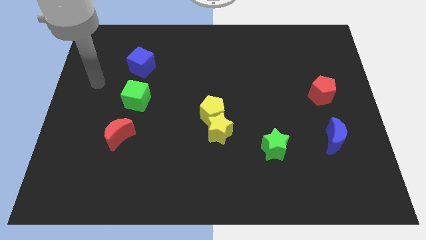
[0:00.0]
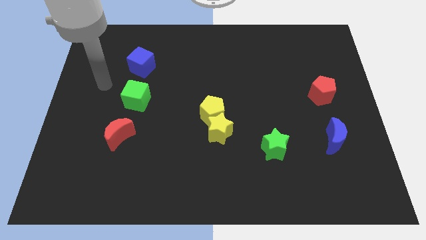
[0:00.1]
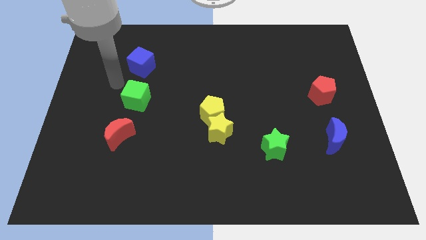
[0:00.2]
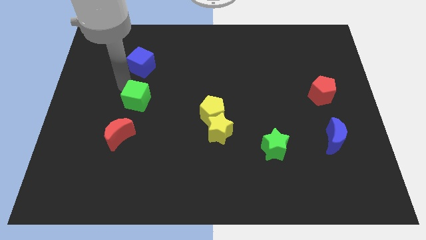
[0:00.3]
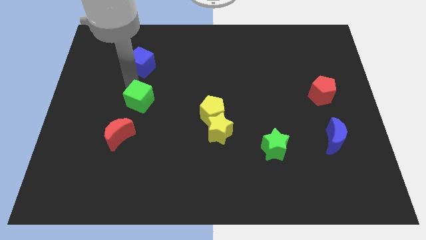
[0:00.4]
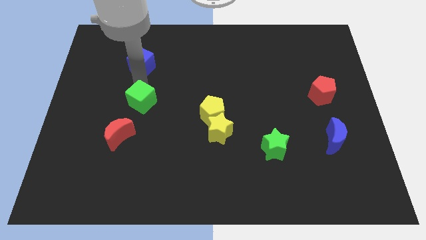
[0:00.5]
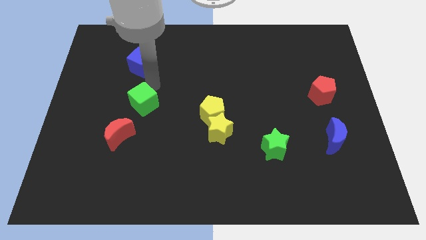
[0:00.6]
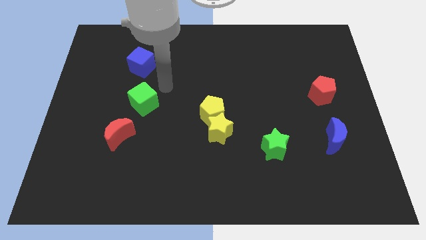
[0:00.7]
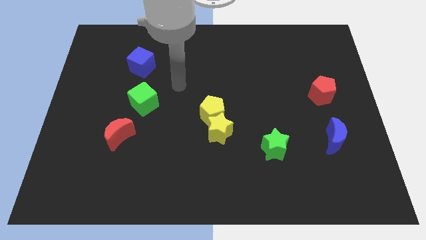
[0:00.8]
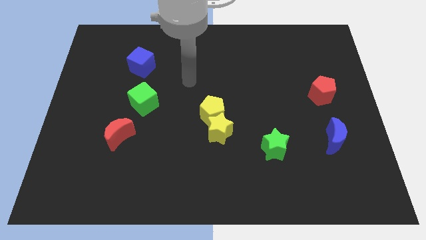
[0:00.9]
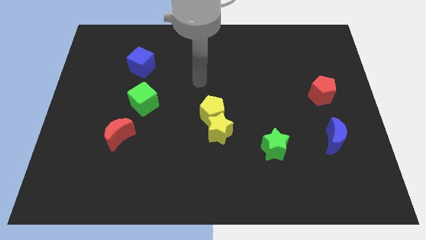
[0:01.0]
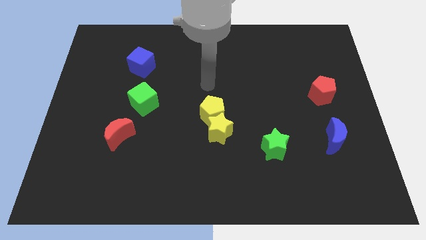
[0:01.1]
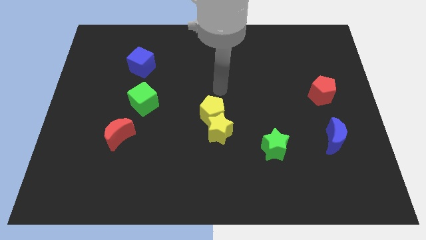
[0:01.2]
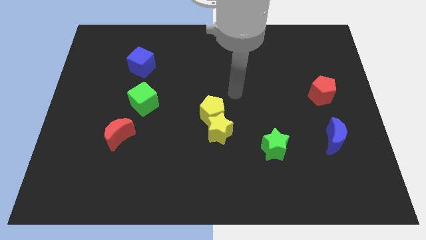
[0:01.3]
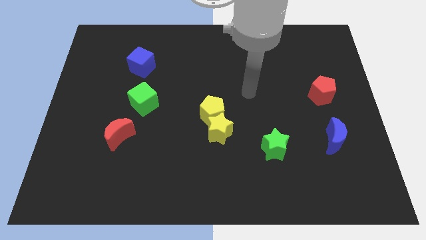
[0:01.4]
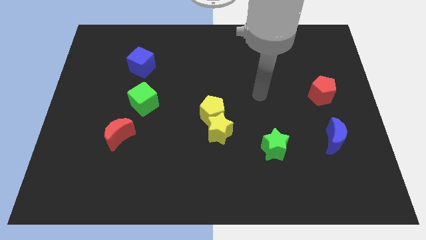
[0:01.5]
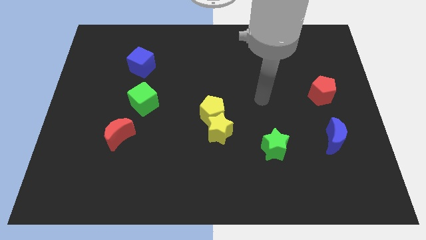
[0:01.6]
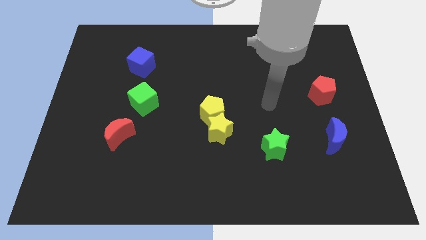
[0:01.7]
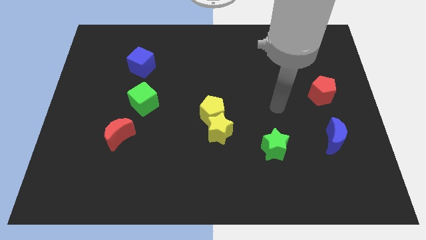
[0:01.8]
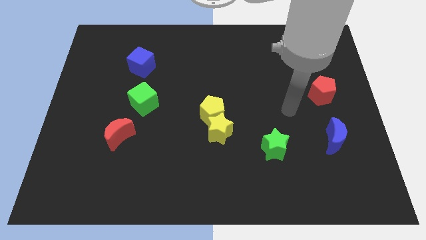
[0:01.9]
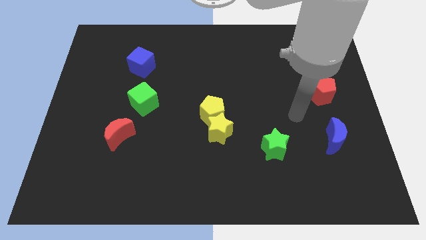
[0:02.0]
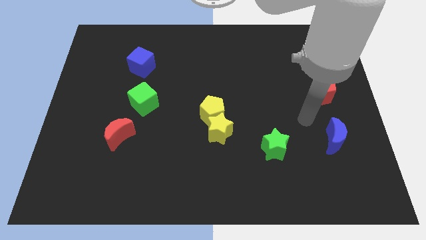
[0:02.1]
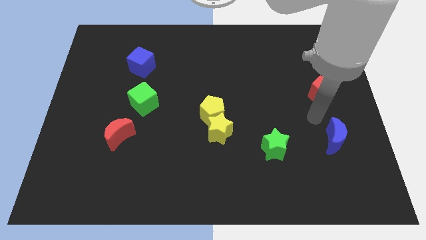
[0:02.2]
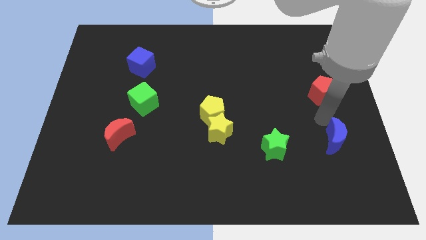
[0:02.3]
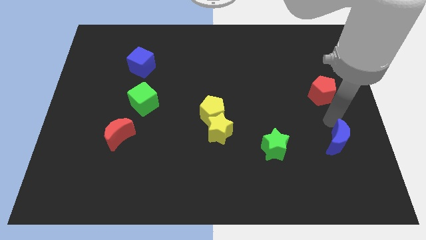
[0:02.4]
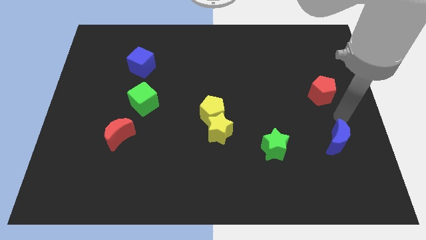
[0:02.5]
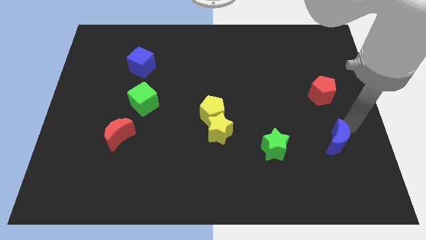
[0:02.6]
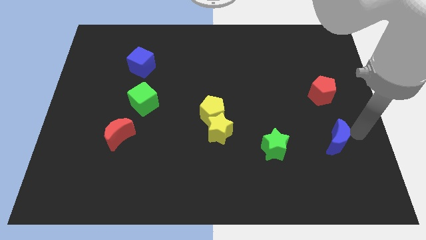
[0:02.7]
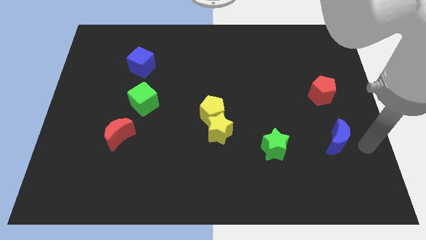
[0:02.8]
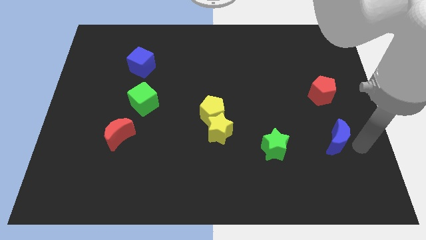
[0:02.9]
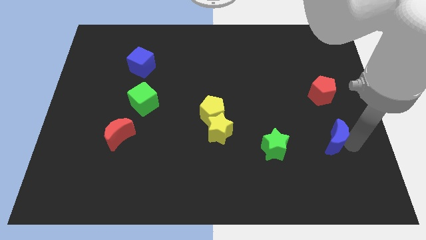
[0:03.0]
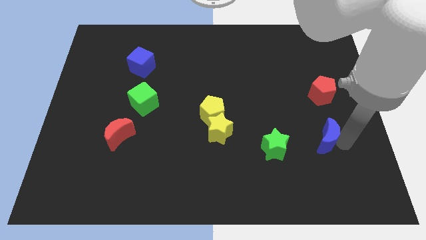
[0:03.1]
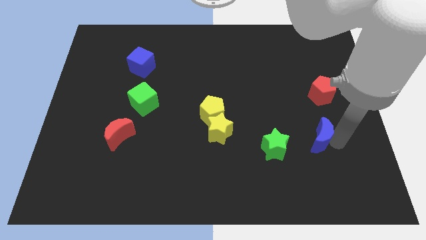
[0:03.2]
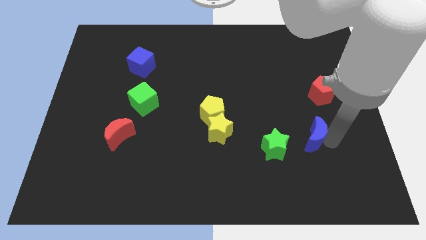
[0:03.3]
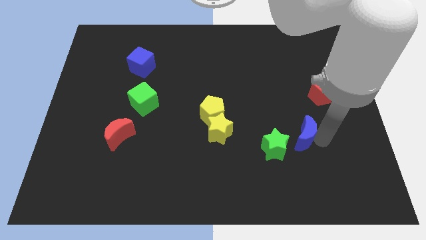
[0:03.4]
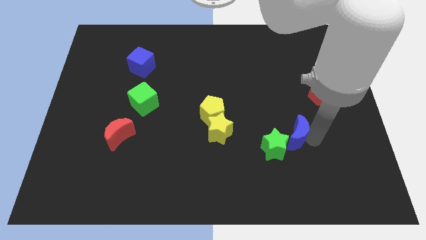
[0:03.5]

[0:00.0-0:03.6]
slightly slide the blue moon left

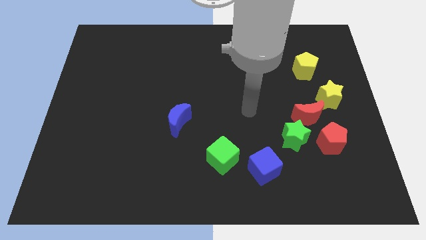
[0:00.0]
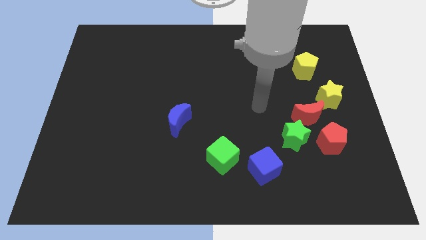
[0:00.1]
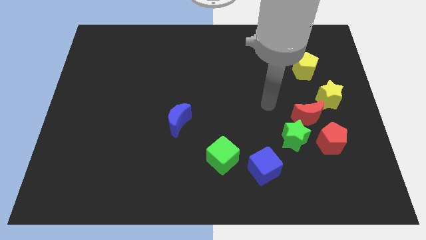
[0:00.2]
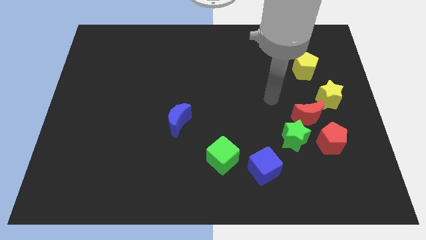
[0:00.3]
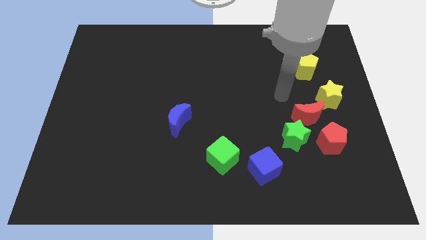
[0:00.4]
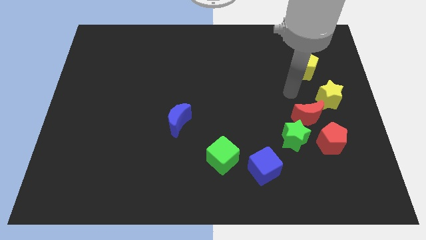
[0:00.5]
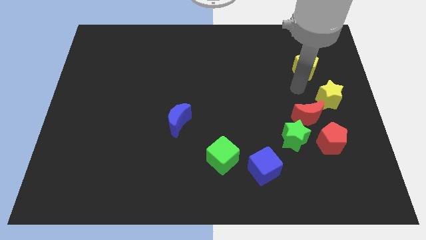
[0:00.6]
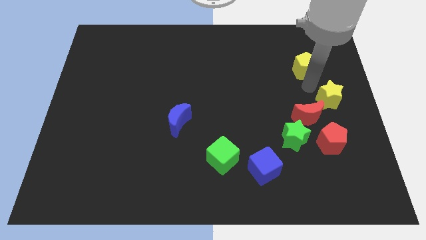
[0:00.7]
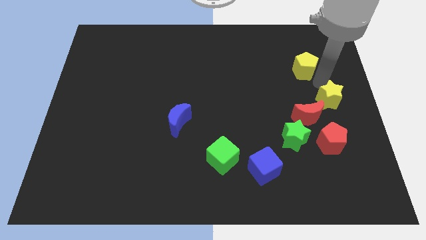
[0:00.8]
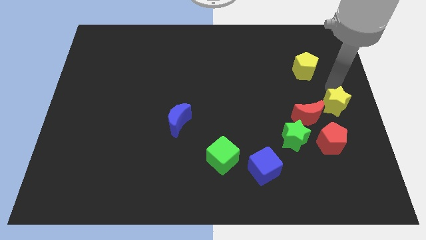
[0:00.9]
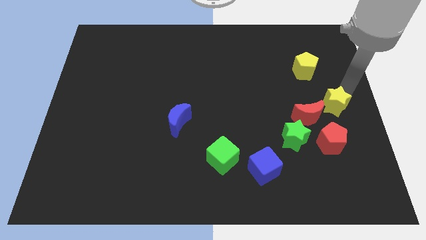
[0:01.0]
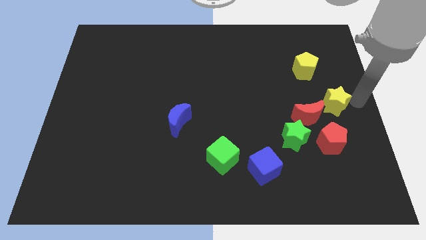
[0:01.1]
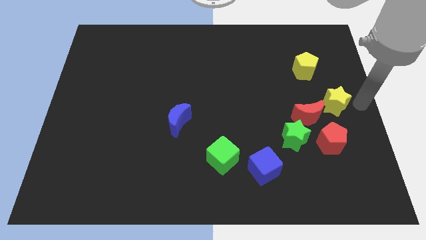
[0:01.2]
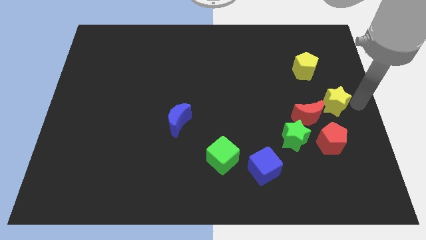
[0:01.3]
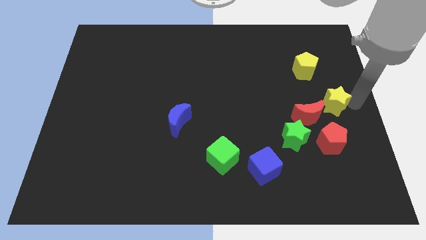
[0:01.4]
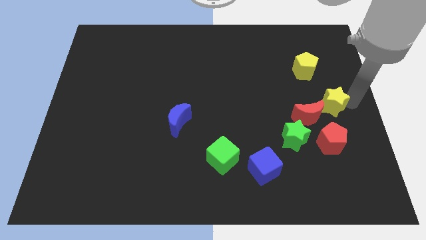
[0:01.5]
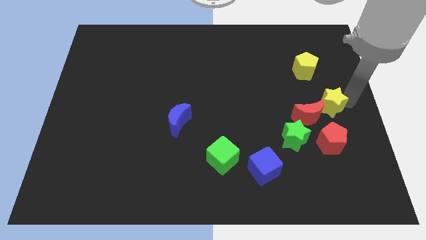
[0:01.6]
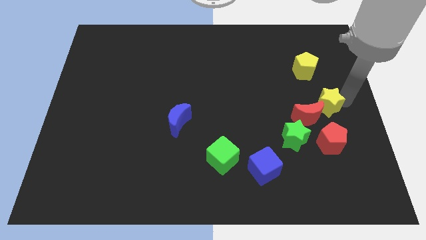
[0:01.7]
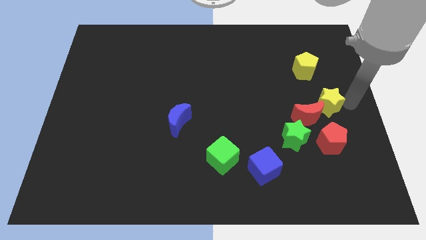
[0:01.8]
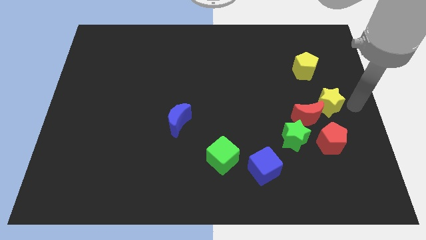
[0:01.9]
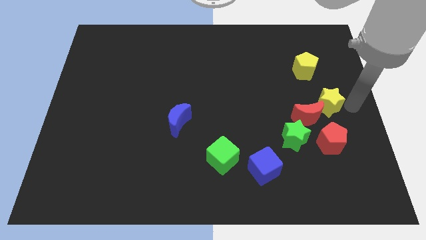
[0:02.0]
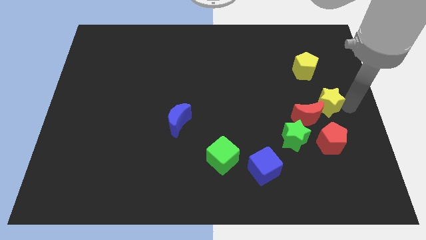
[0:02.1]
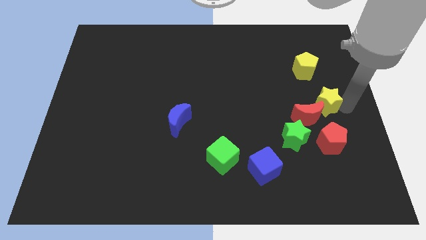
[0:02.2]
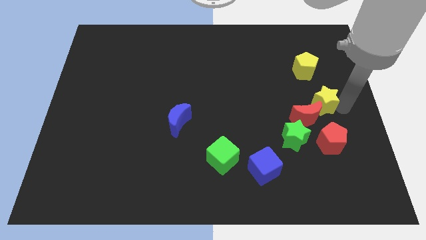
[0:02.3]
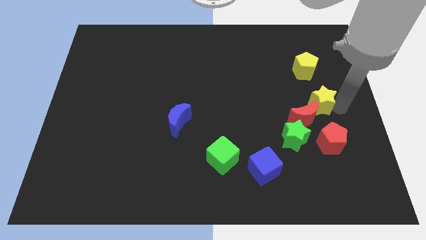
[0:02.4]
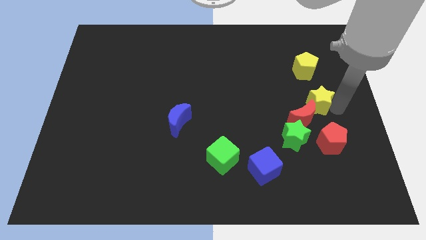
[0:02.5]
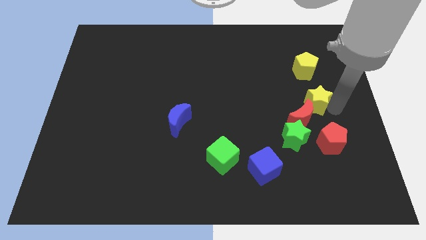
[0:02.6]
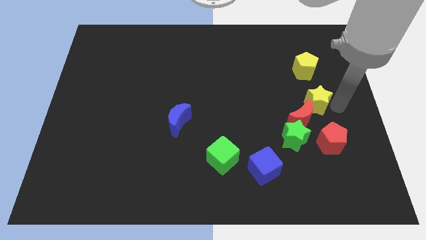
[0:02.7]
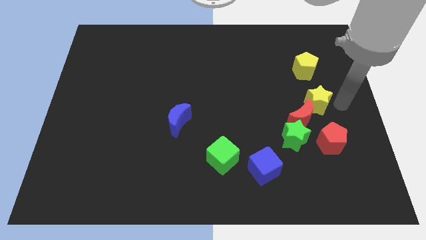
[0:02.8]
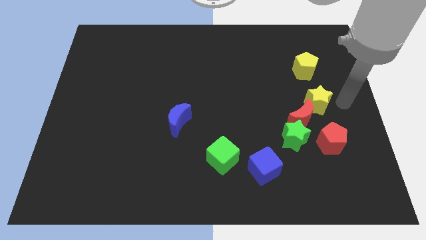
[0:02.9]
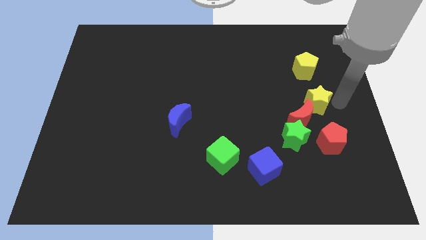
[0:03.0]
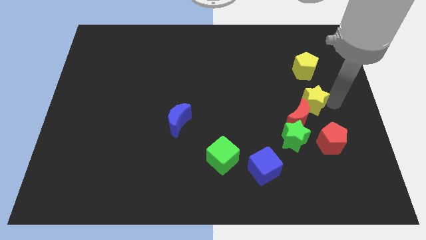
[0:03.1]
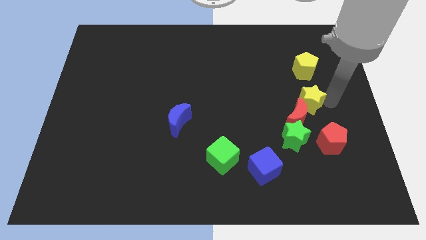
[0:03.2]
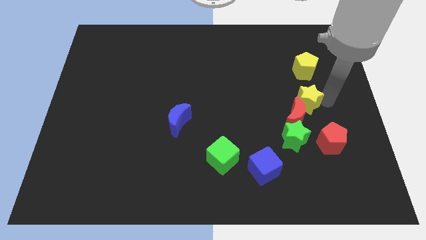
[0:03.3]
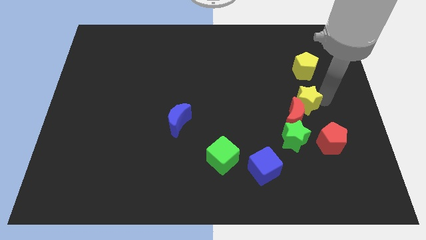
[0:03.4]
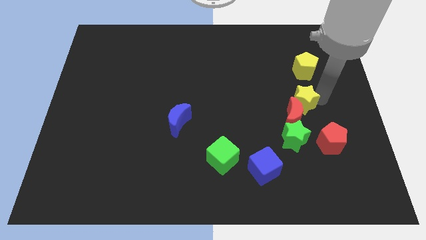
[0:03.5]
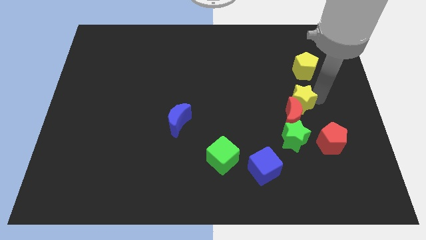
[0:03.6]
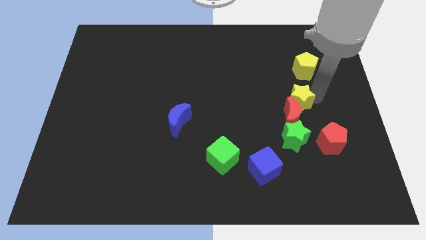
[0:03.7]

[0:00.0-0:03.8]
slightly move the yellow star left

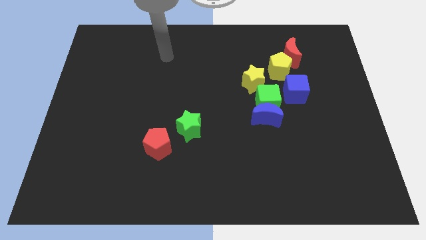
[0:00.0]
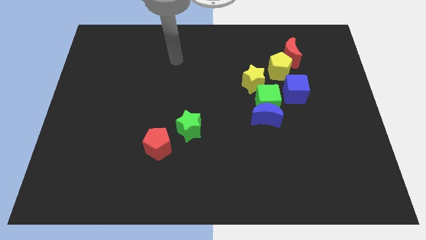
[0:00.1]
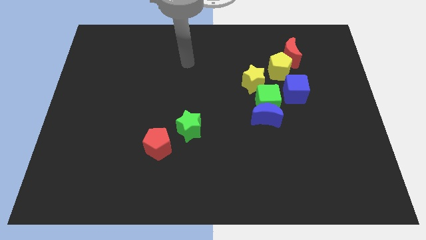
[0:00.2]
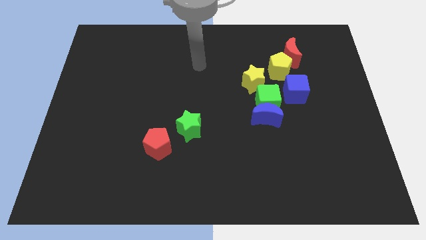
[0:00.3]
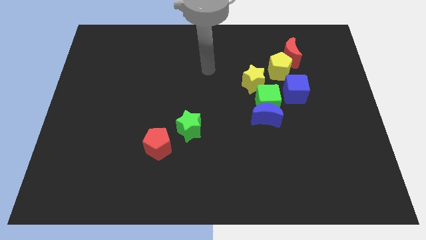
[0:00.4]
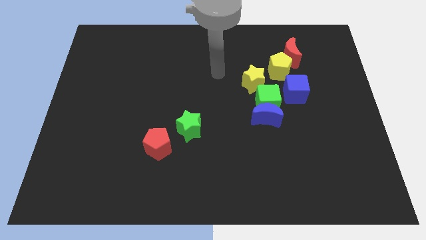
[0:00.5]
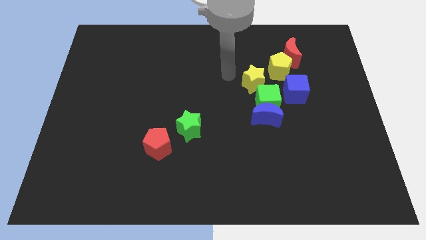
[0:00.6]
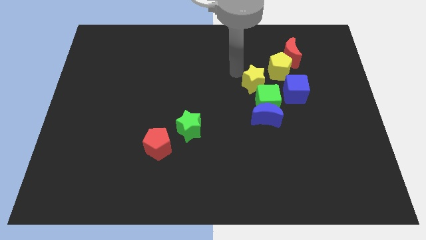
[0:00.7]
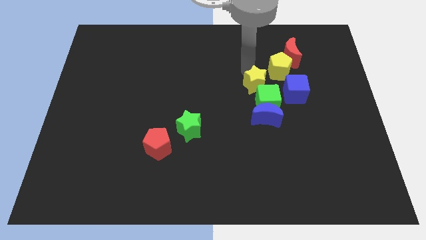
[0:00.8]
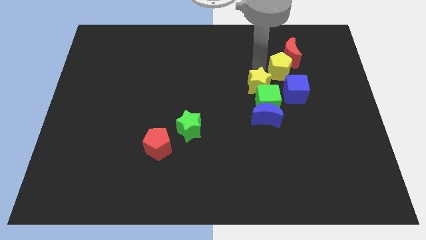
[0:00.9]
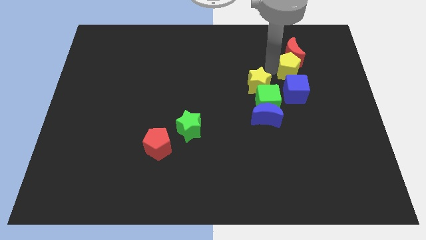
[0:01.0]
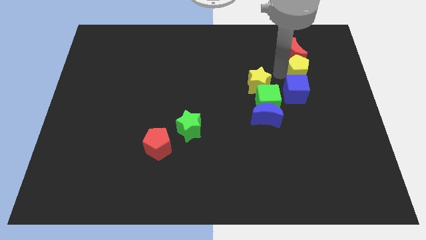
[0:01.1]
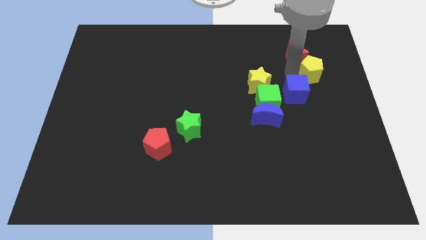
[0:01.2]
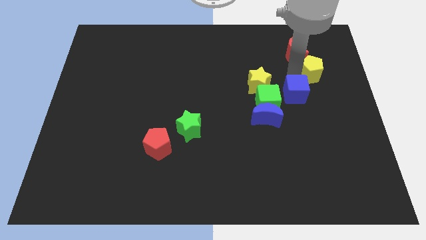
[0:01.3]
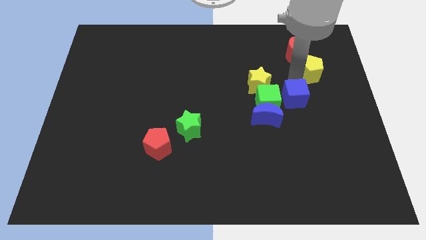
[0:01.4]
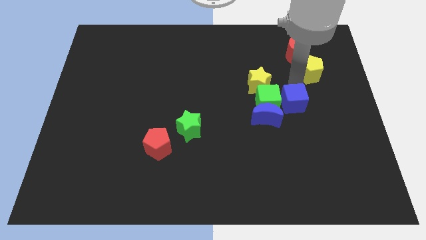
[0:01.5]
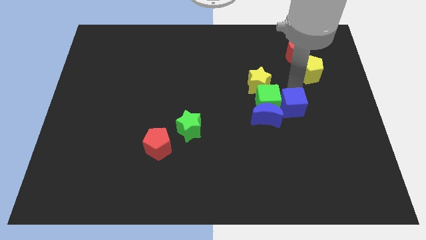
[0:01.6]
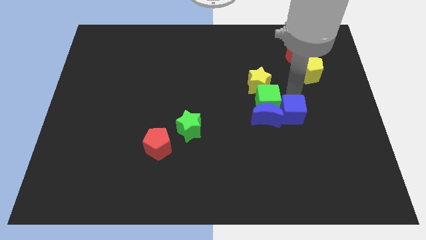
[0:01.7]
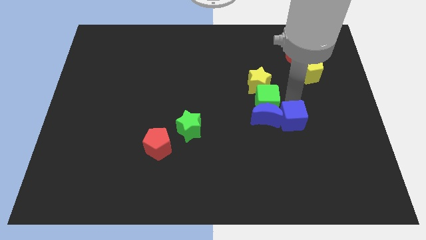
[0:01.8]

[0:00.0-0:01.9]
move the blue cube down a little bit
